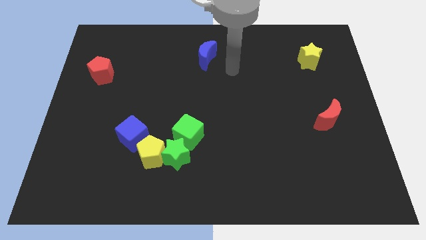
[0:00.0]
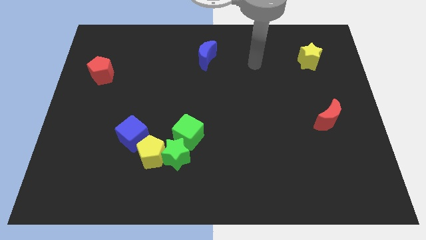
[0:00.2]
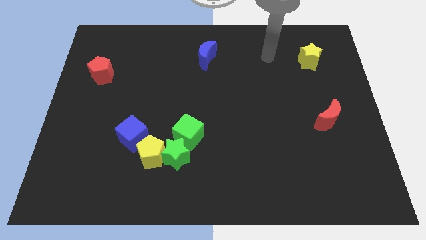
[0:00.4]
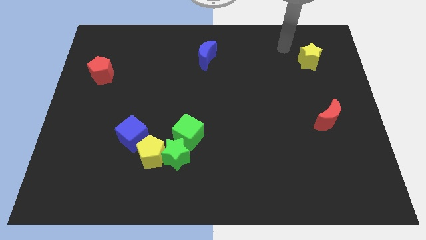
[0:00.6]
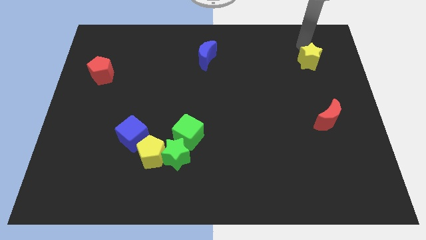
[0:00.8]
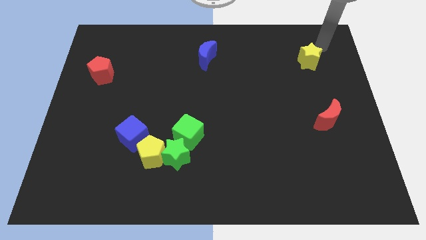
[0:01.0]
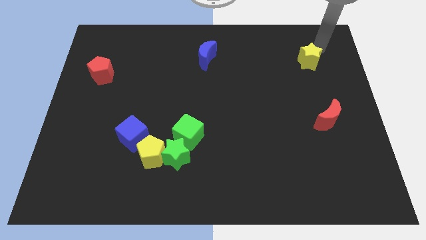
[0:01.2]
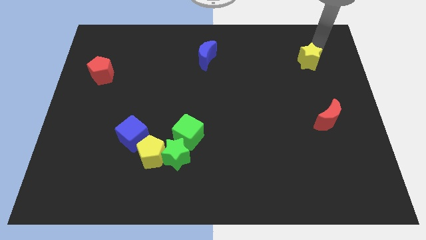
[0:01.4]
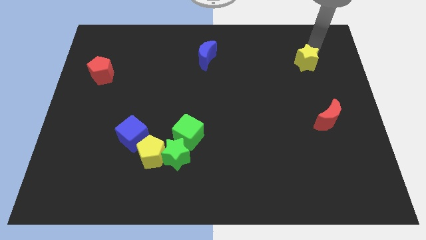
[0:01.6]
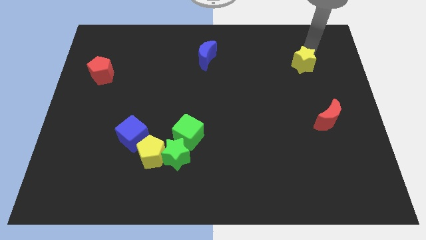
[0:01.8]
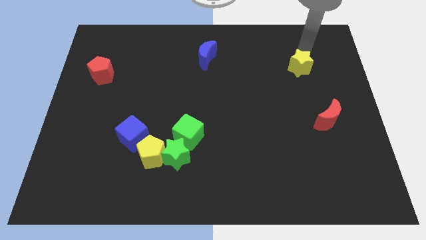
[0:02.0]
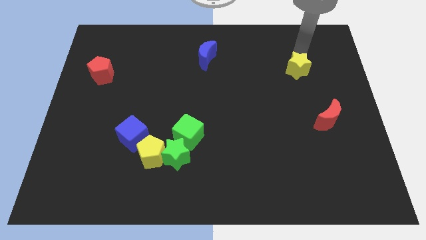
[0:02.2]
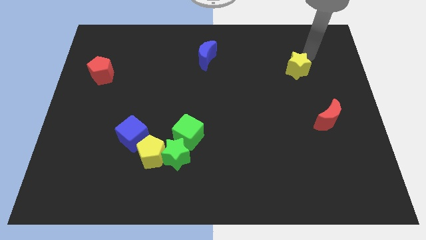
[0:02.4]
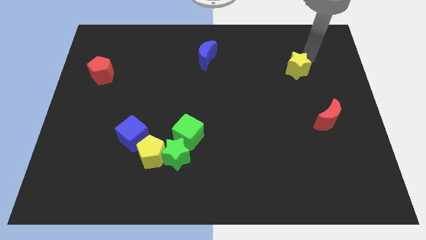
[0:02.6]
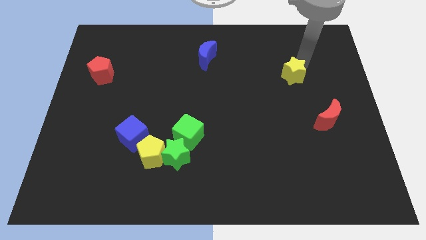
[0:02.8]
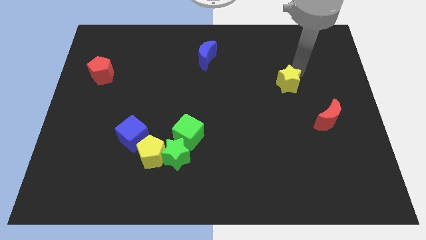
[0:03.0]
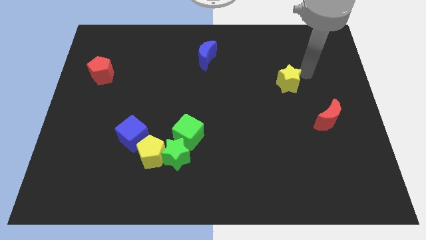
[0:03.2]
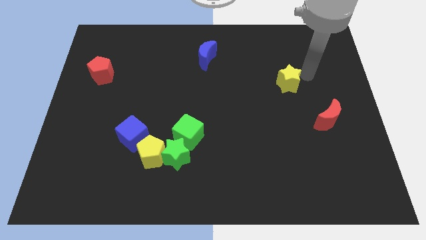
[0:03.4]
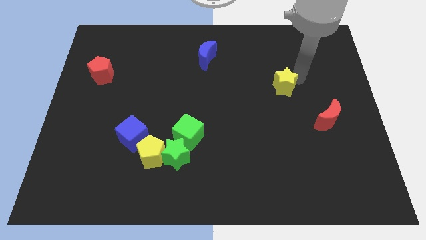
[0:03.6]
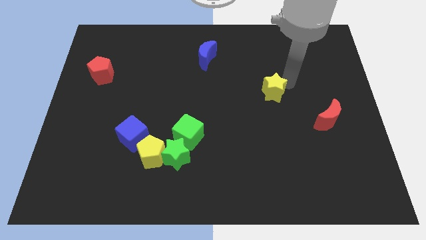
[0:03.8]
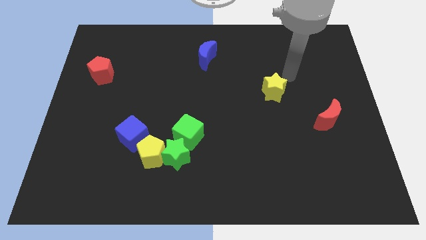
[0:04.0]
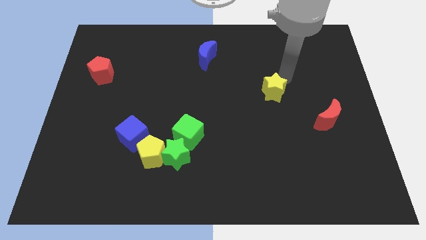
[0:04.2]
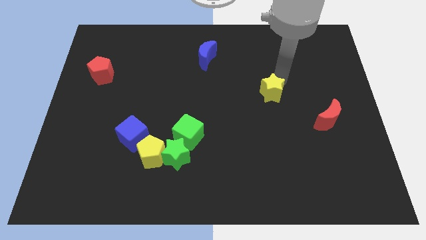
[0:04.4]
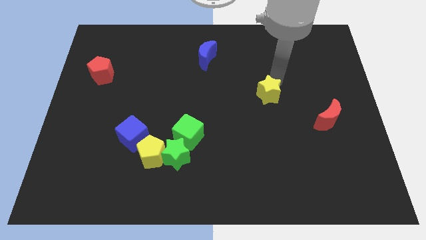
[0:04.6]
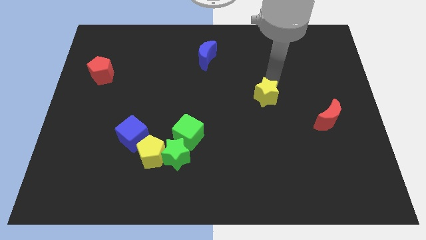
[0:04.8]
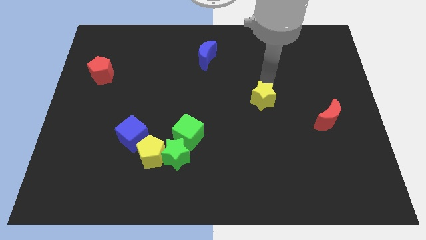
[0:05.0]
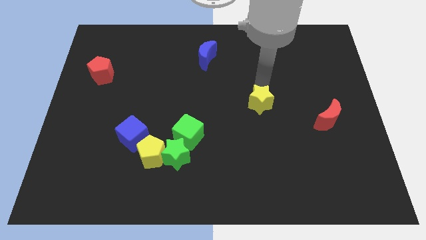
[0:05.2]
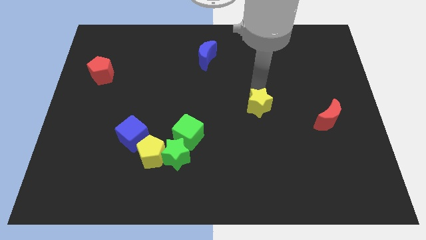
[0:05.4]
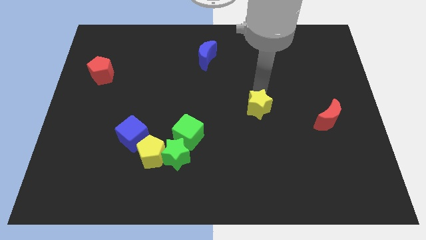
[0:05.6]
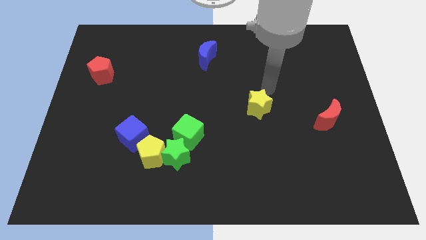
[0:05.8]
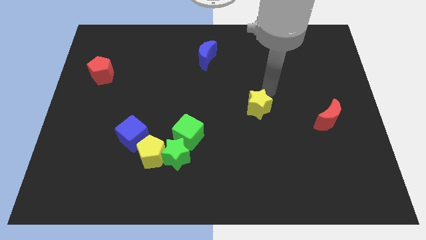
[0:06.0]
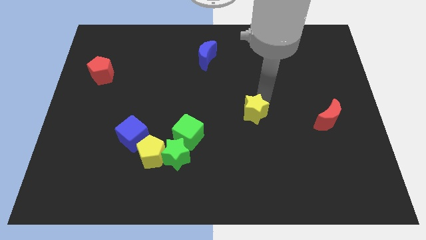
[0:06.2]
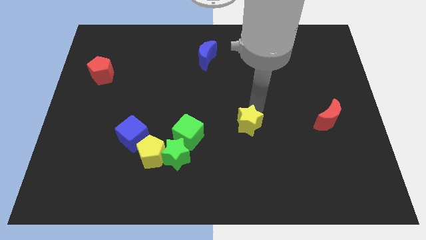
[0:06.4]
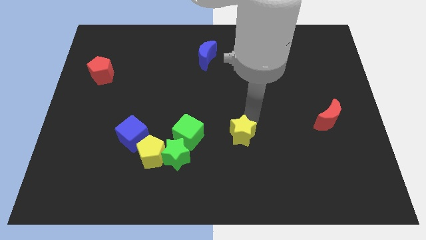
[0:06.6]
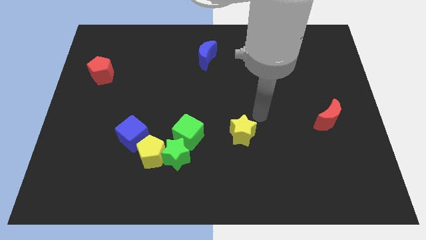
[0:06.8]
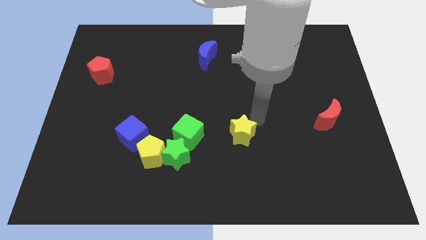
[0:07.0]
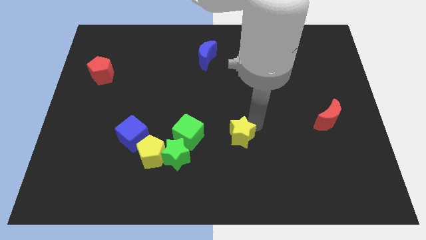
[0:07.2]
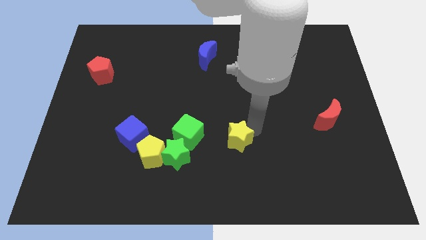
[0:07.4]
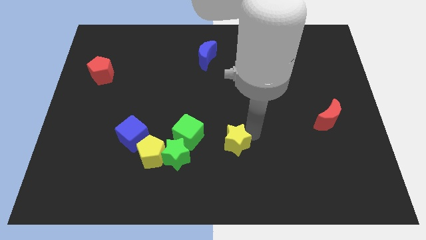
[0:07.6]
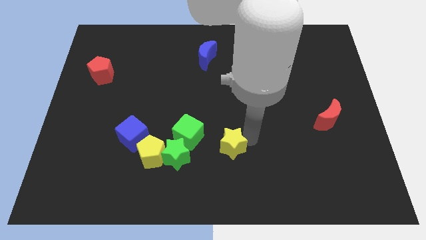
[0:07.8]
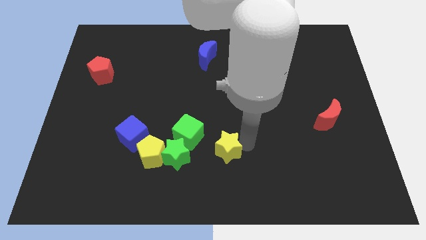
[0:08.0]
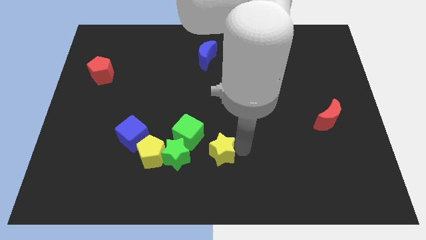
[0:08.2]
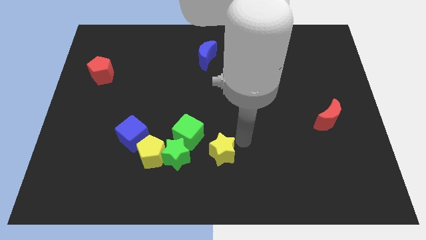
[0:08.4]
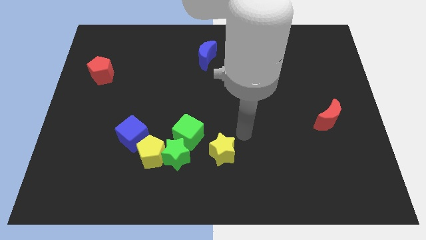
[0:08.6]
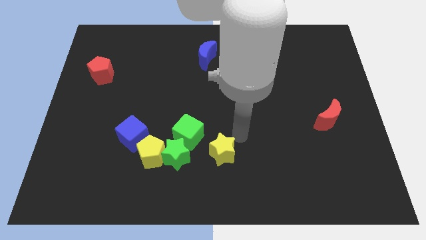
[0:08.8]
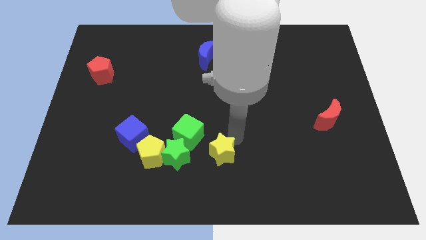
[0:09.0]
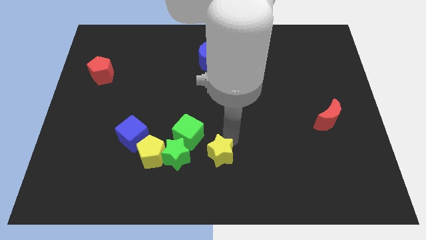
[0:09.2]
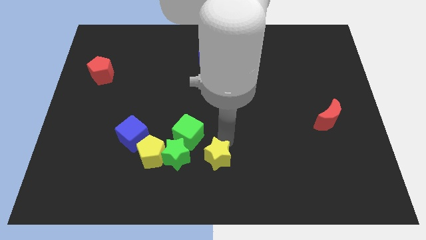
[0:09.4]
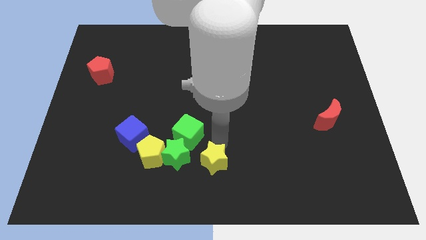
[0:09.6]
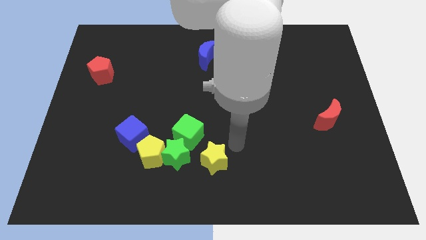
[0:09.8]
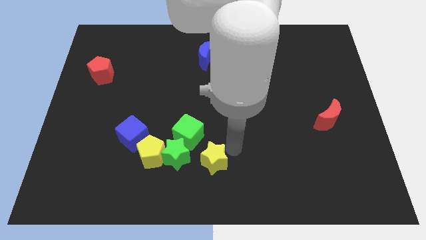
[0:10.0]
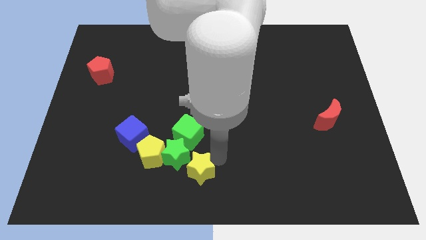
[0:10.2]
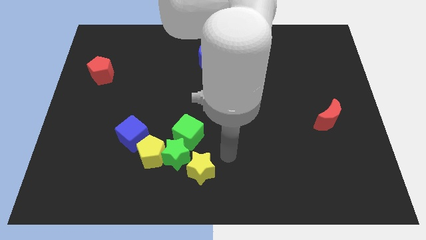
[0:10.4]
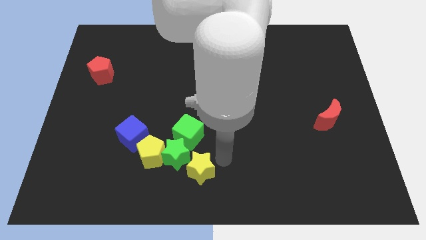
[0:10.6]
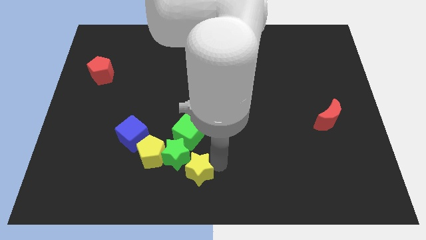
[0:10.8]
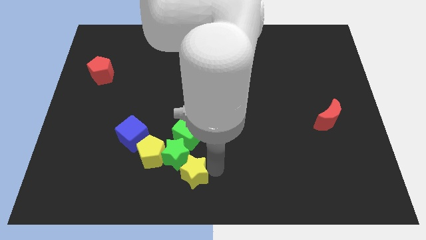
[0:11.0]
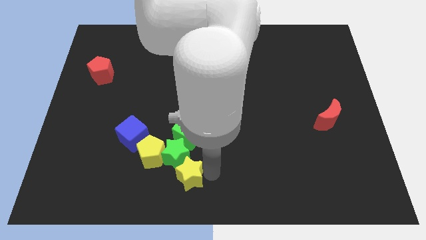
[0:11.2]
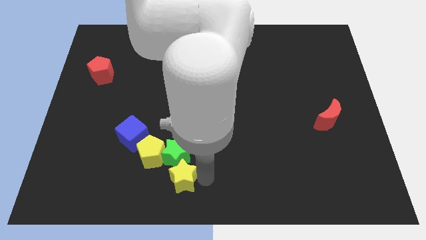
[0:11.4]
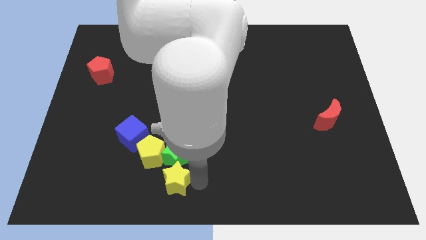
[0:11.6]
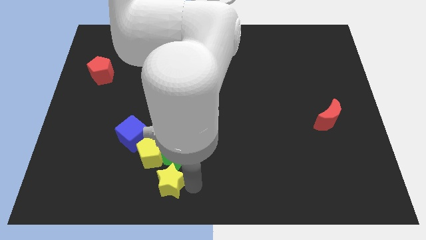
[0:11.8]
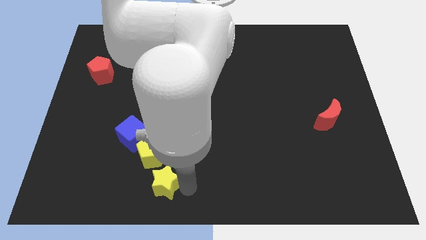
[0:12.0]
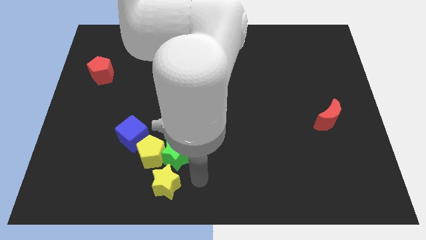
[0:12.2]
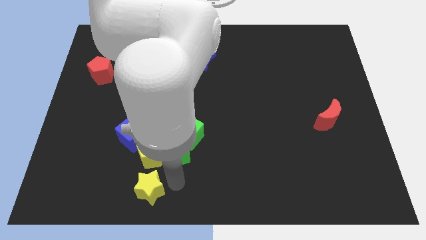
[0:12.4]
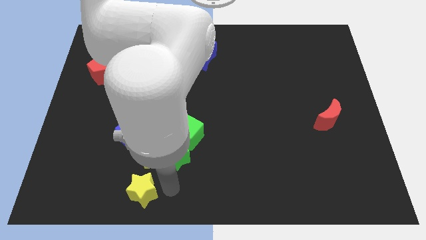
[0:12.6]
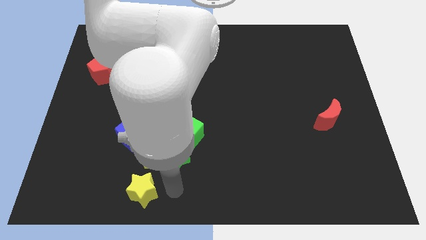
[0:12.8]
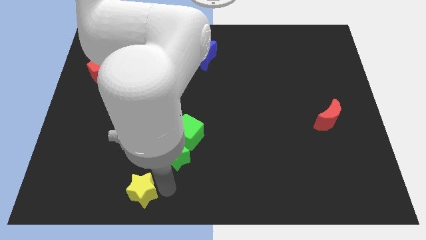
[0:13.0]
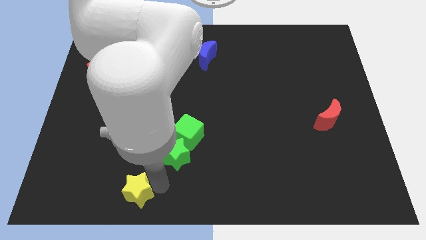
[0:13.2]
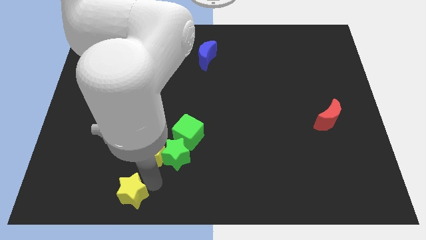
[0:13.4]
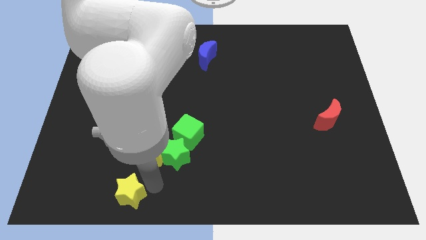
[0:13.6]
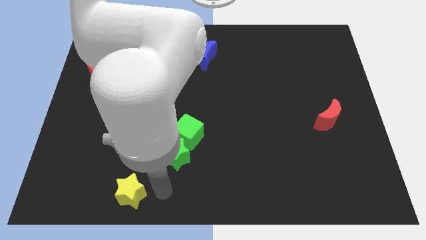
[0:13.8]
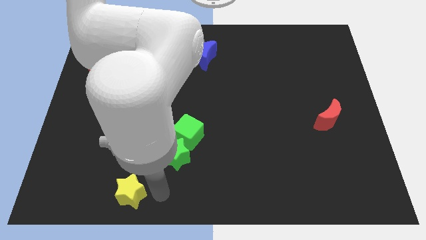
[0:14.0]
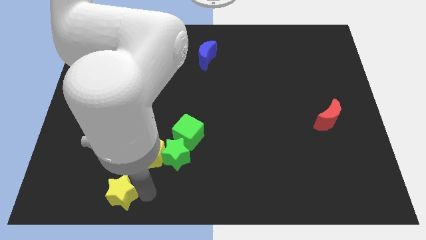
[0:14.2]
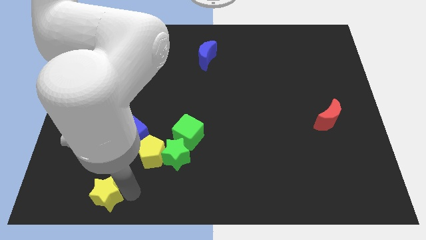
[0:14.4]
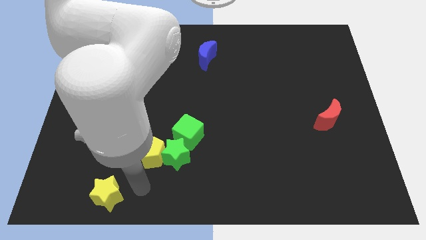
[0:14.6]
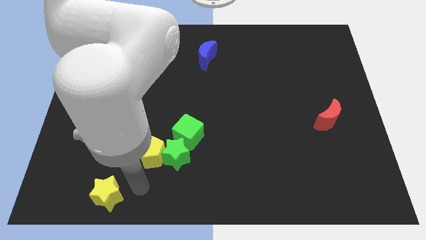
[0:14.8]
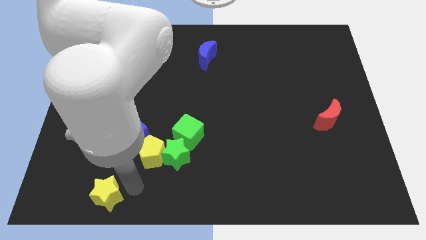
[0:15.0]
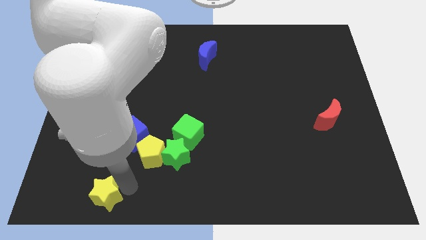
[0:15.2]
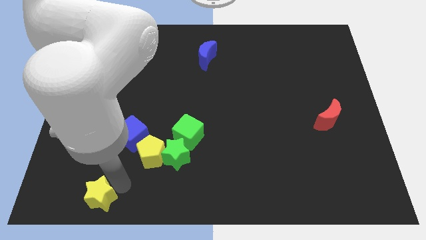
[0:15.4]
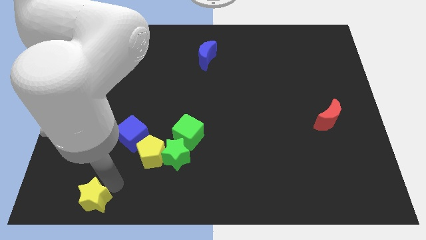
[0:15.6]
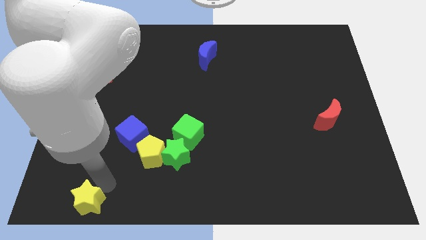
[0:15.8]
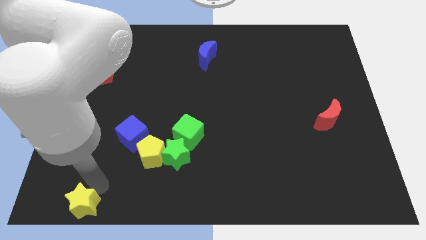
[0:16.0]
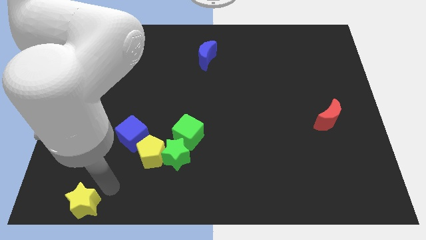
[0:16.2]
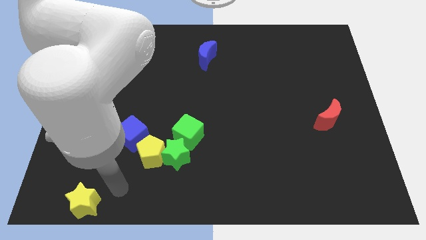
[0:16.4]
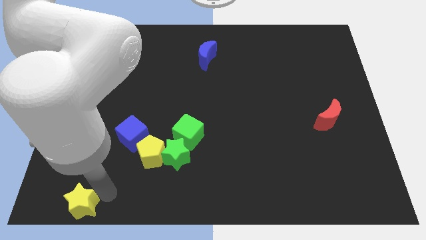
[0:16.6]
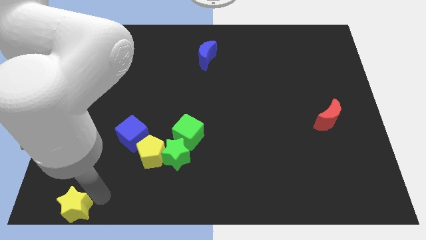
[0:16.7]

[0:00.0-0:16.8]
move the yellow star to the bottom left
